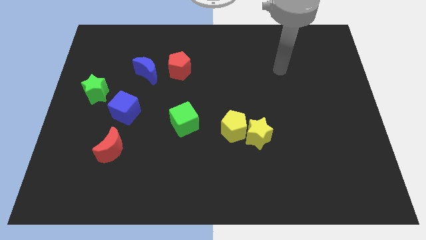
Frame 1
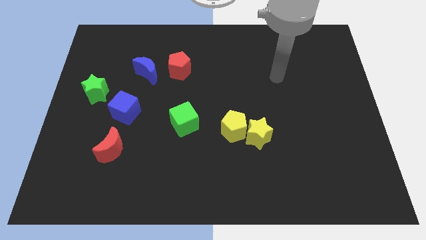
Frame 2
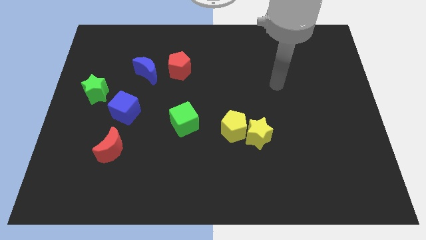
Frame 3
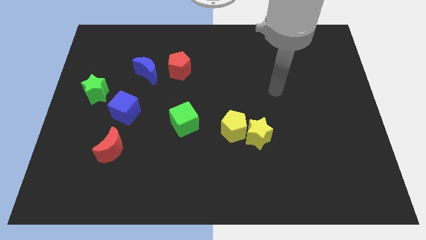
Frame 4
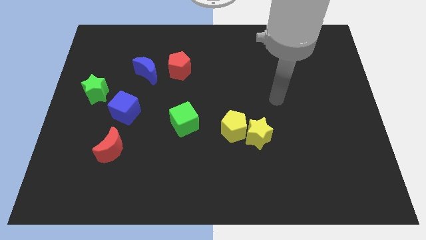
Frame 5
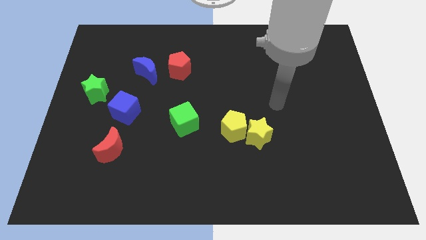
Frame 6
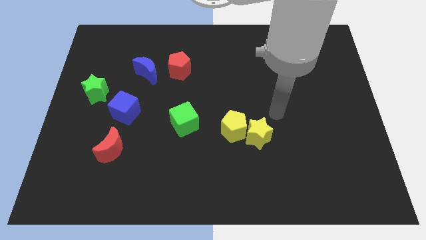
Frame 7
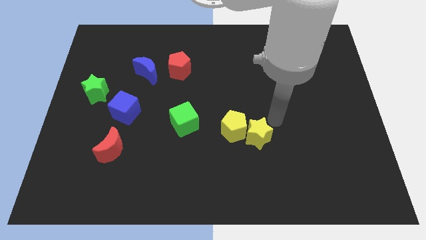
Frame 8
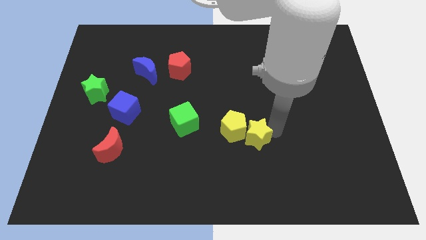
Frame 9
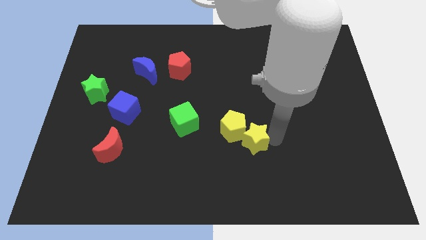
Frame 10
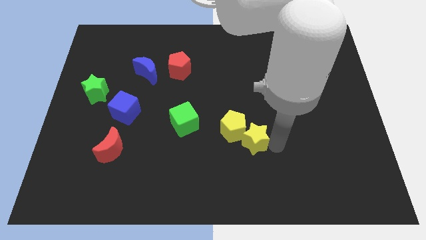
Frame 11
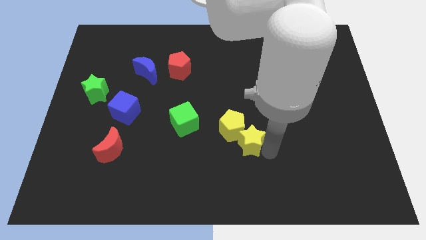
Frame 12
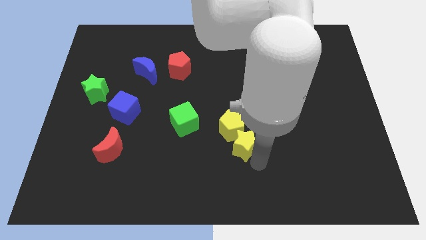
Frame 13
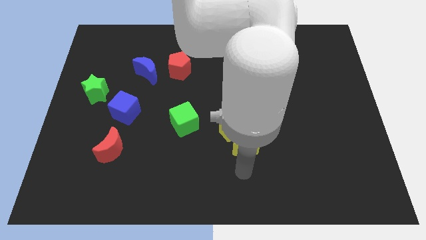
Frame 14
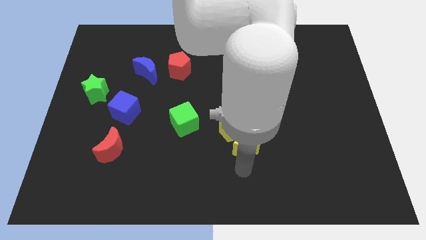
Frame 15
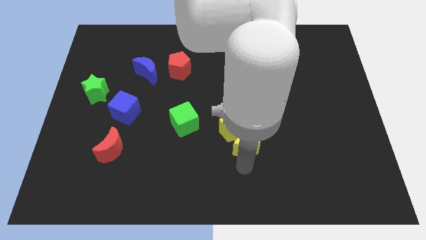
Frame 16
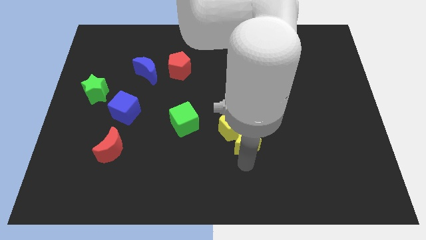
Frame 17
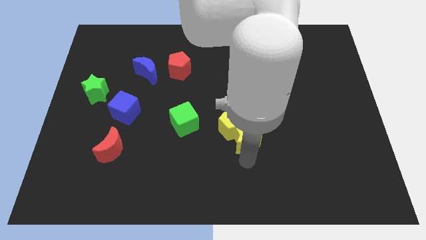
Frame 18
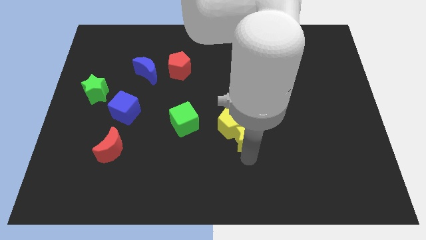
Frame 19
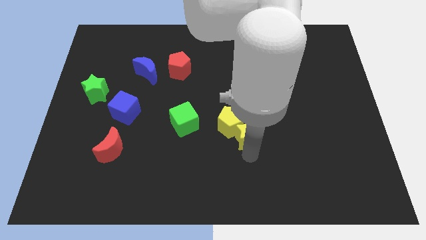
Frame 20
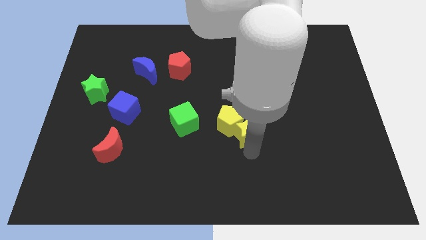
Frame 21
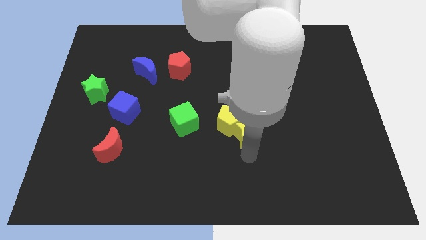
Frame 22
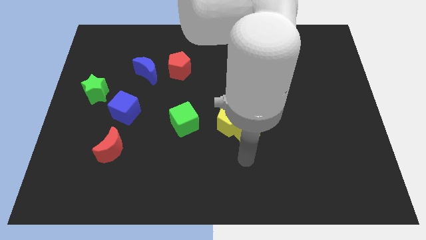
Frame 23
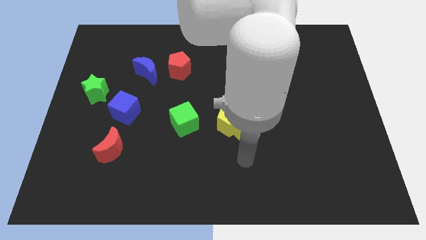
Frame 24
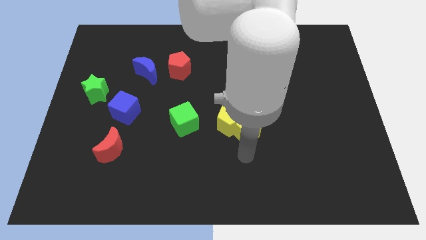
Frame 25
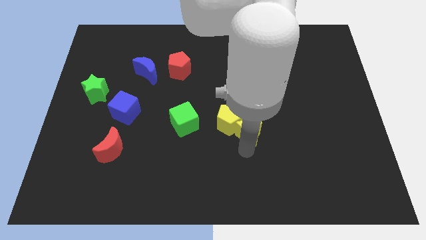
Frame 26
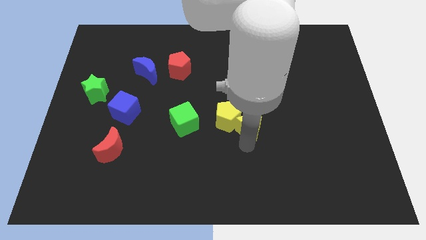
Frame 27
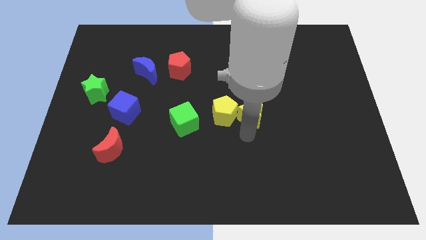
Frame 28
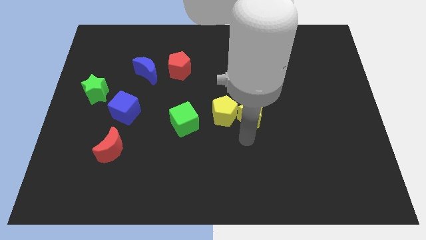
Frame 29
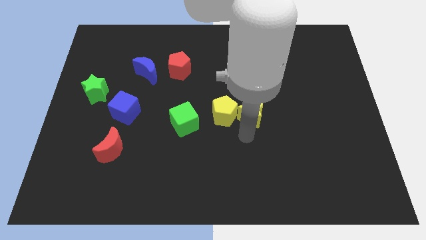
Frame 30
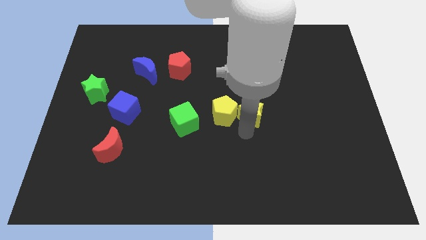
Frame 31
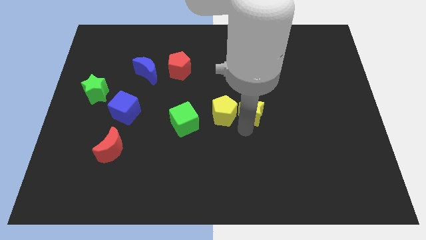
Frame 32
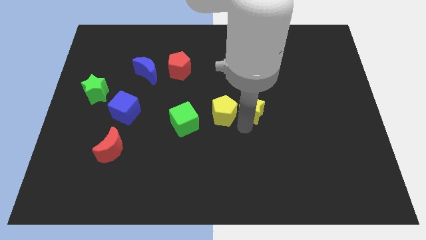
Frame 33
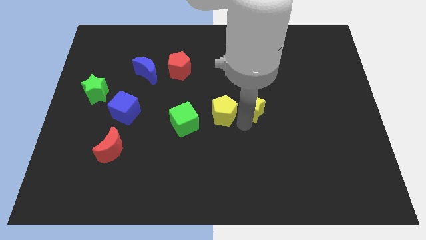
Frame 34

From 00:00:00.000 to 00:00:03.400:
move the yellow star a little up

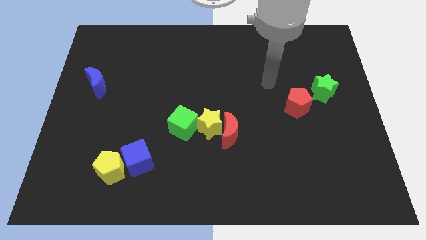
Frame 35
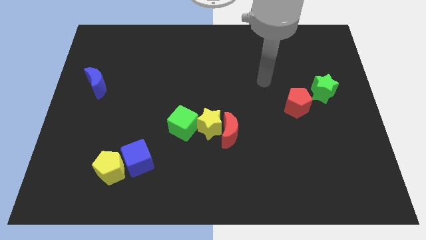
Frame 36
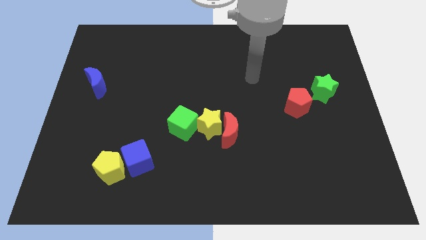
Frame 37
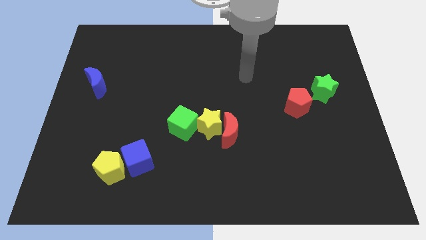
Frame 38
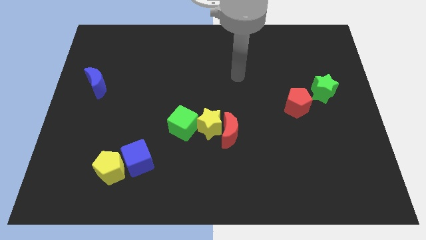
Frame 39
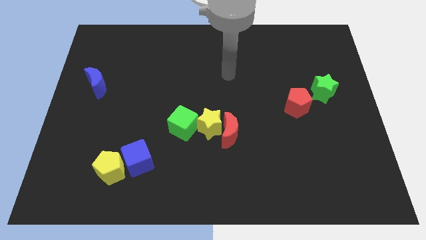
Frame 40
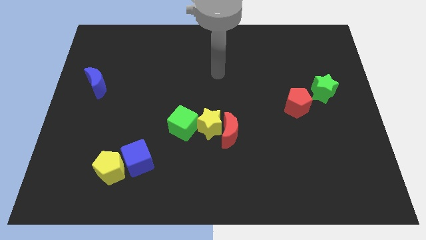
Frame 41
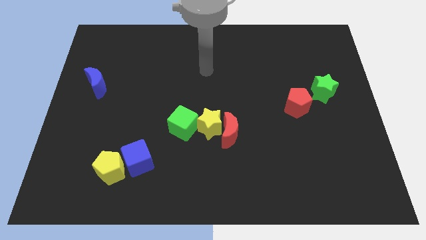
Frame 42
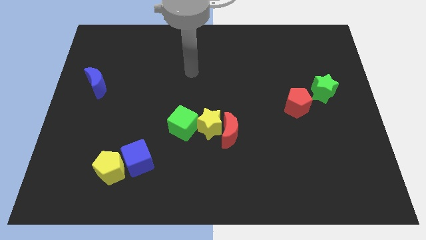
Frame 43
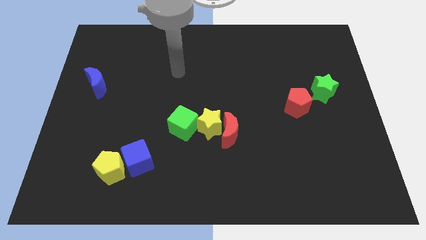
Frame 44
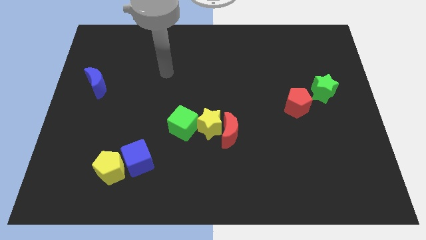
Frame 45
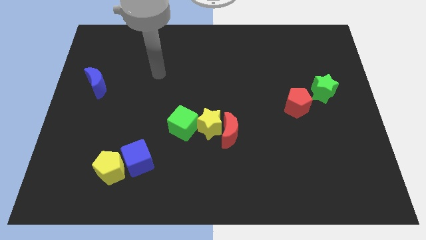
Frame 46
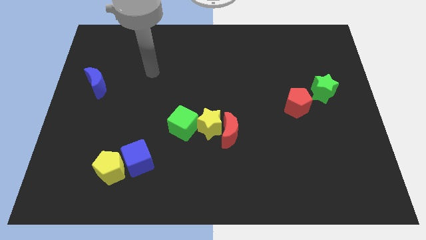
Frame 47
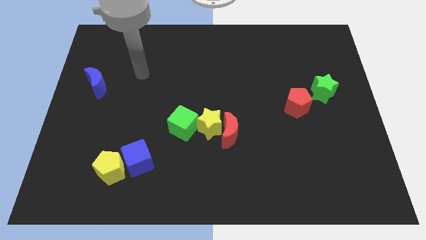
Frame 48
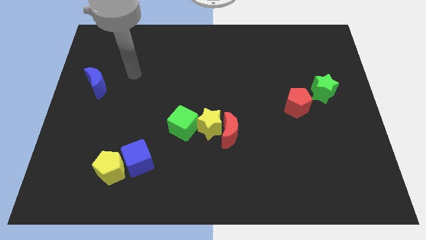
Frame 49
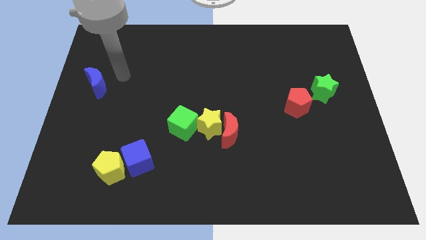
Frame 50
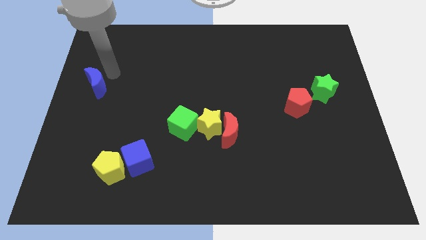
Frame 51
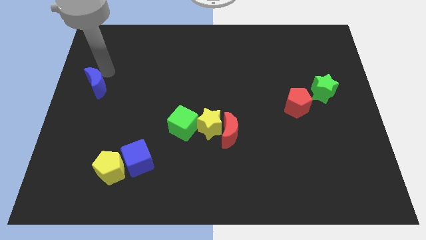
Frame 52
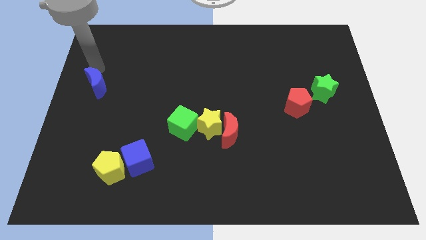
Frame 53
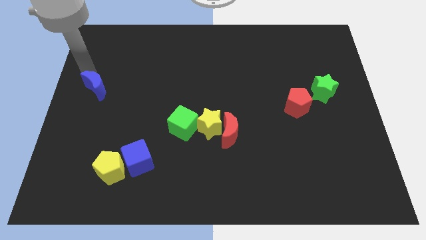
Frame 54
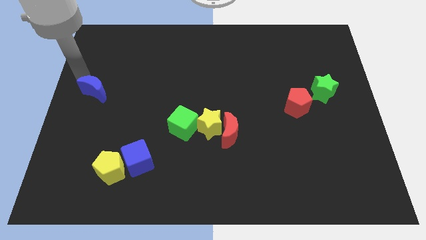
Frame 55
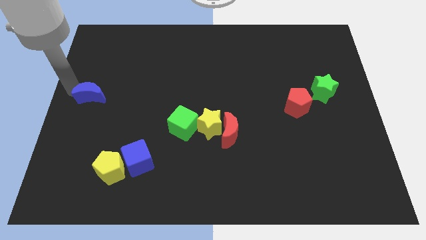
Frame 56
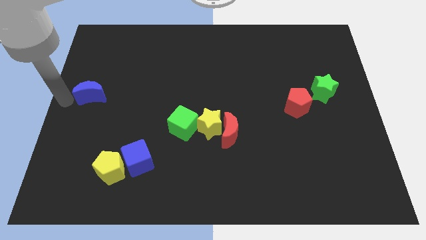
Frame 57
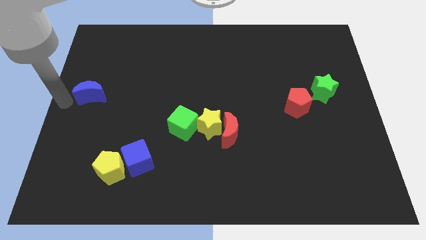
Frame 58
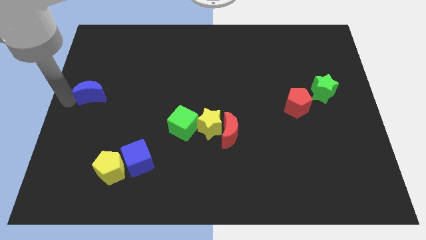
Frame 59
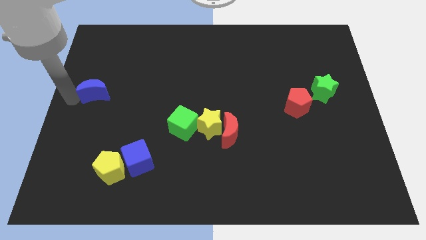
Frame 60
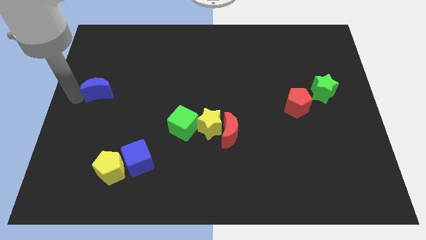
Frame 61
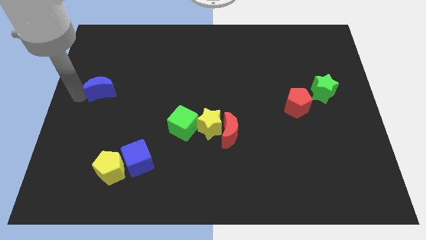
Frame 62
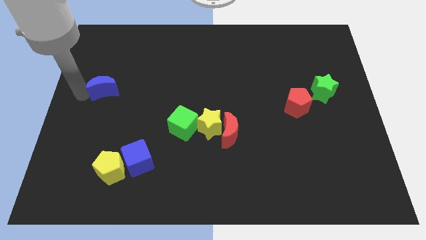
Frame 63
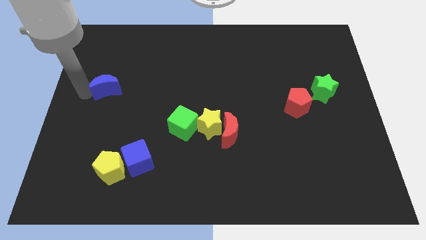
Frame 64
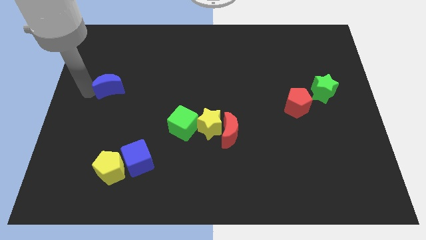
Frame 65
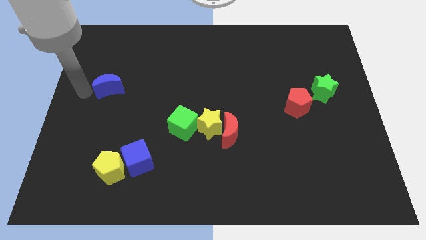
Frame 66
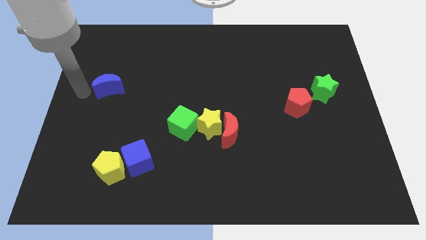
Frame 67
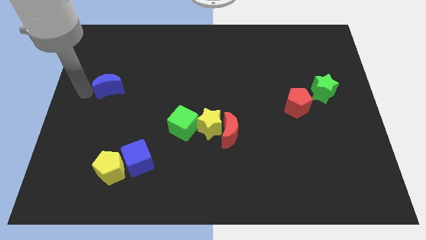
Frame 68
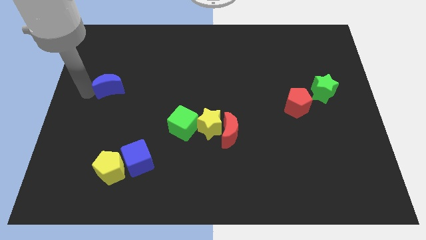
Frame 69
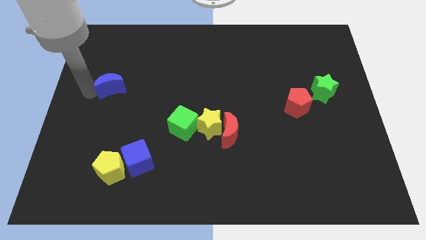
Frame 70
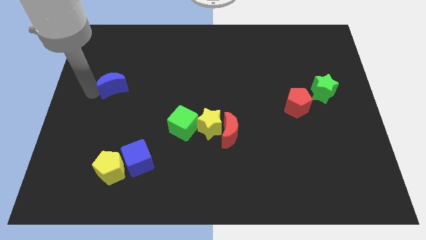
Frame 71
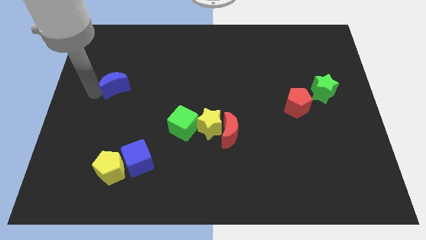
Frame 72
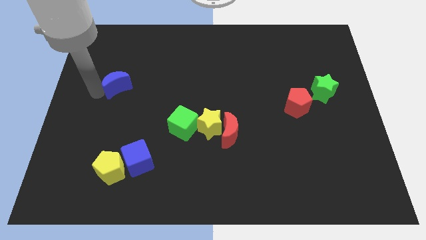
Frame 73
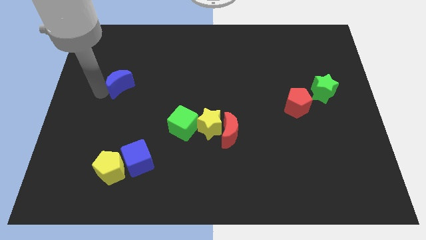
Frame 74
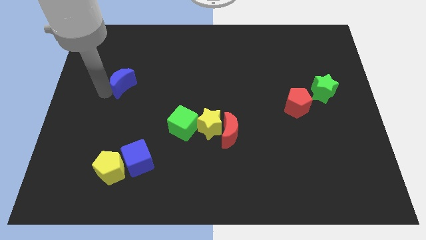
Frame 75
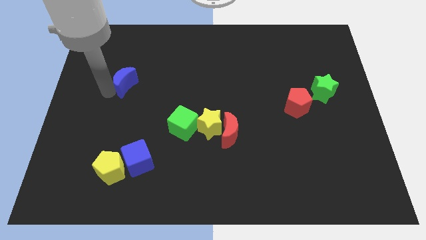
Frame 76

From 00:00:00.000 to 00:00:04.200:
slightly push the blue moon to the right

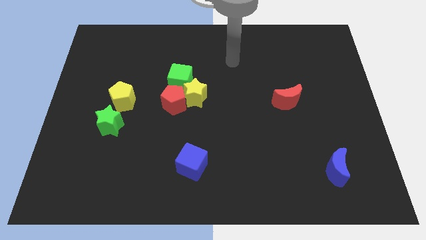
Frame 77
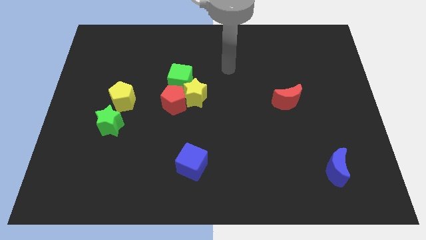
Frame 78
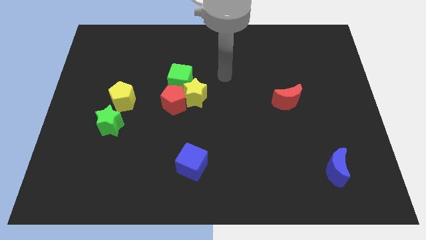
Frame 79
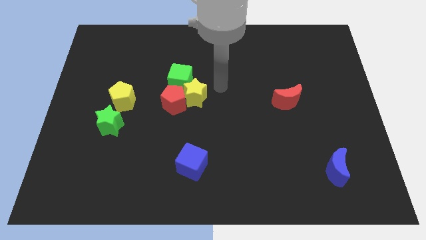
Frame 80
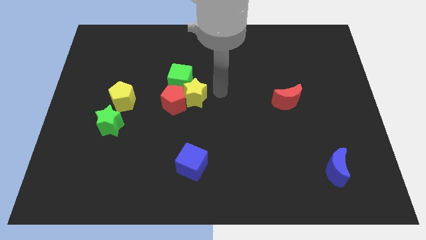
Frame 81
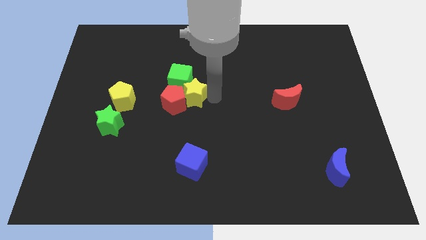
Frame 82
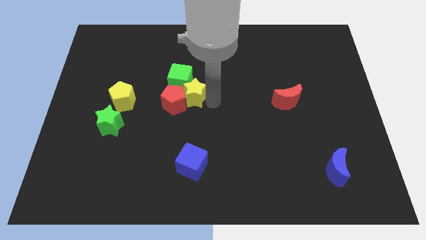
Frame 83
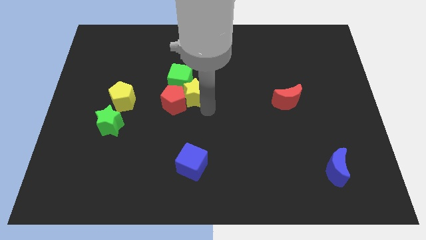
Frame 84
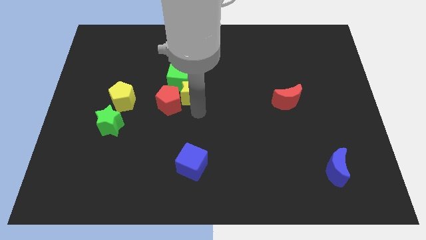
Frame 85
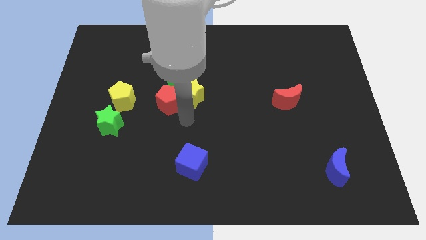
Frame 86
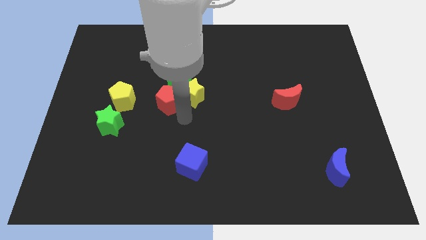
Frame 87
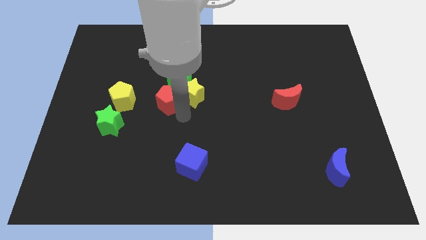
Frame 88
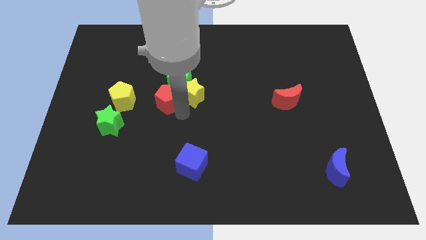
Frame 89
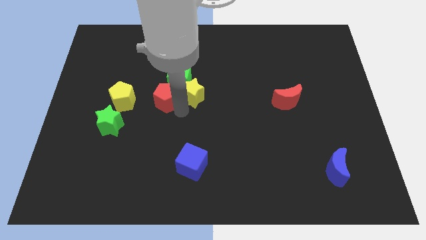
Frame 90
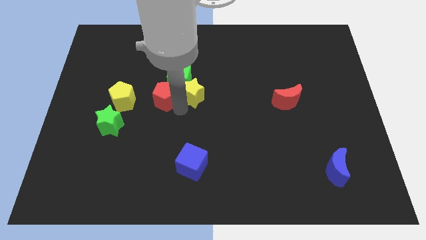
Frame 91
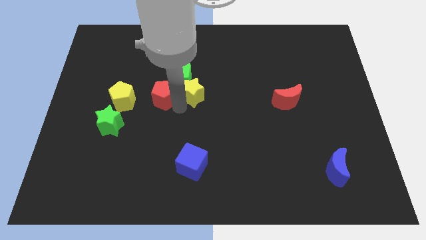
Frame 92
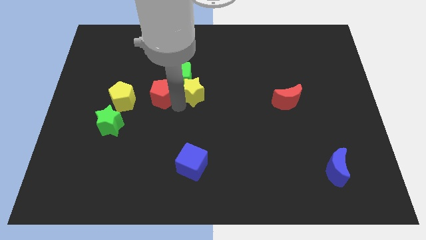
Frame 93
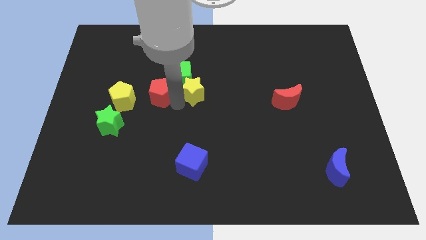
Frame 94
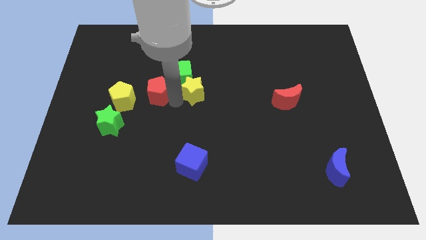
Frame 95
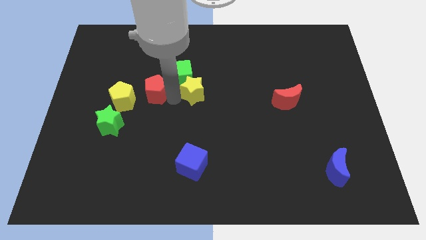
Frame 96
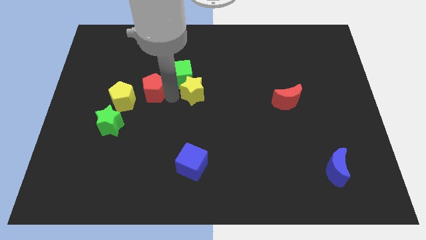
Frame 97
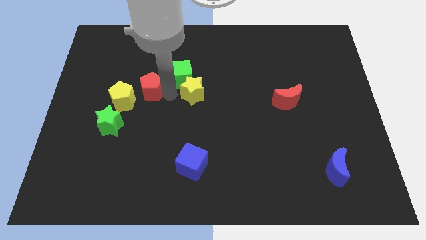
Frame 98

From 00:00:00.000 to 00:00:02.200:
push the red pentagon slightly upwards and left diagonally
